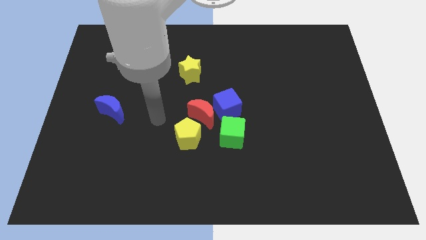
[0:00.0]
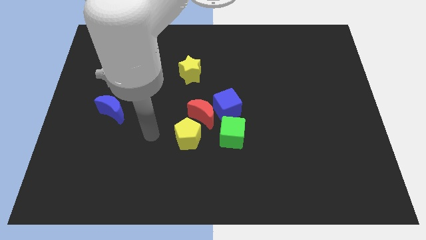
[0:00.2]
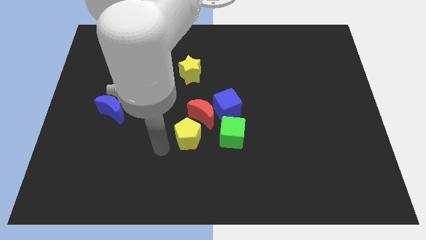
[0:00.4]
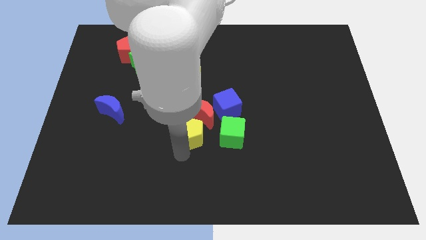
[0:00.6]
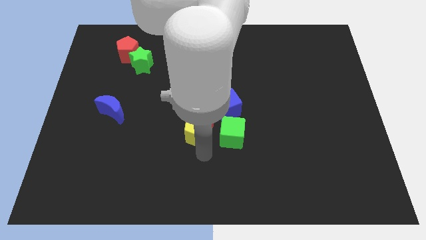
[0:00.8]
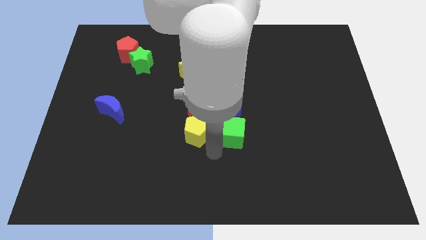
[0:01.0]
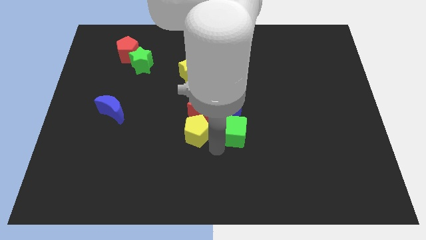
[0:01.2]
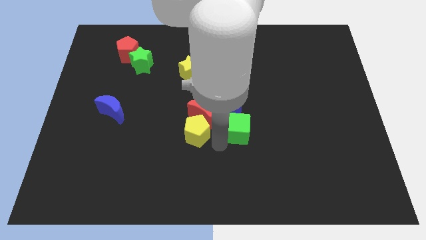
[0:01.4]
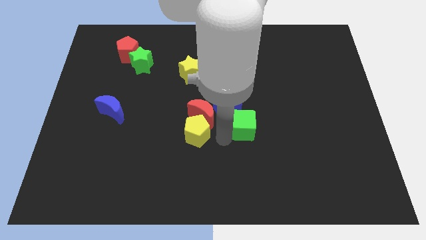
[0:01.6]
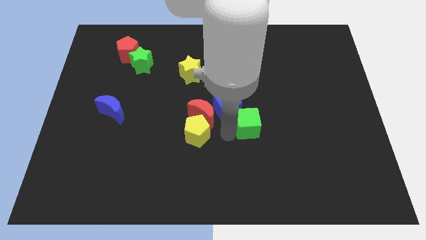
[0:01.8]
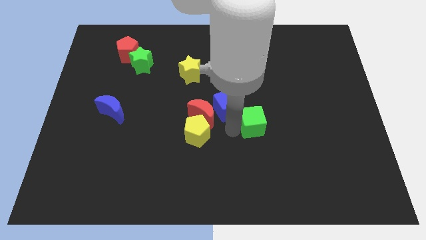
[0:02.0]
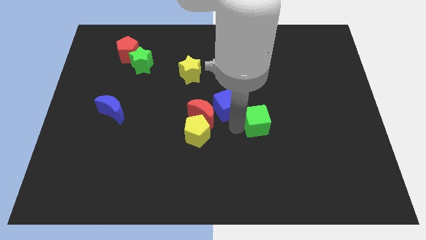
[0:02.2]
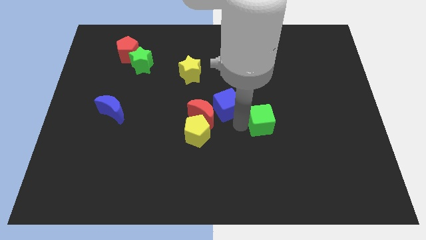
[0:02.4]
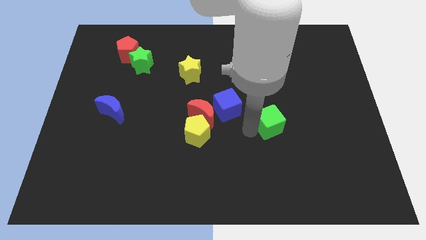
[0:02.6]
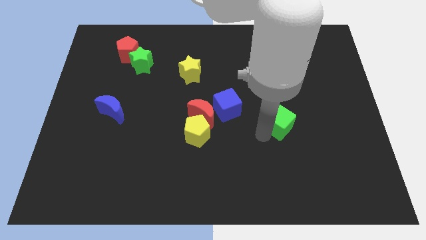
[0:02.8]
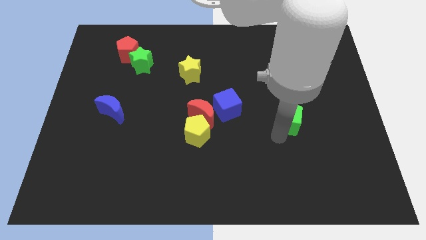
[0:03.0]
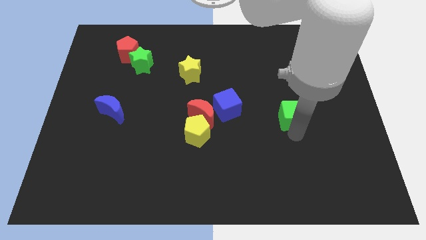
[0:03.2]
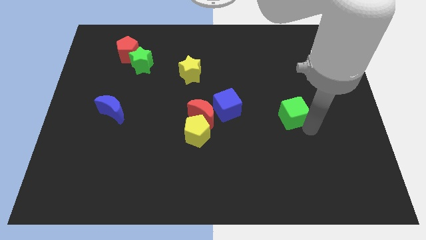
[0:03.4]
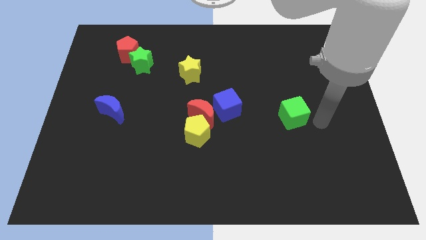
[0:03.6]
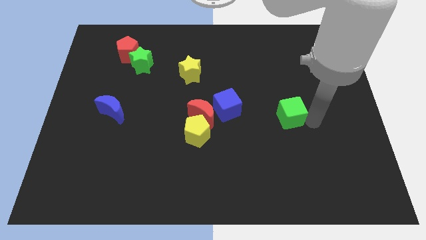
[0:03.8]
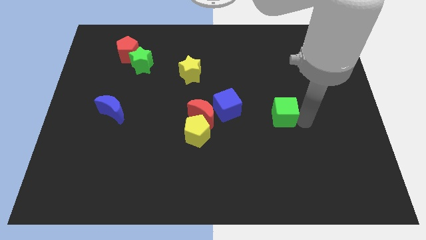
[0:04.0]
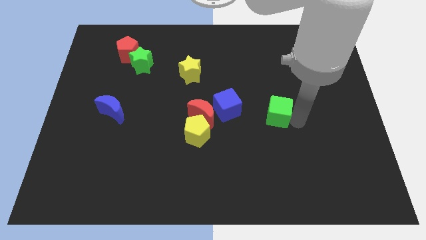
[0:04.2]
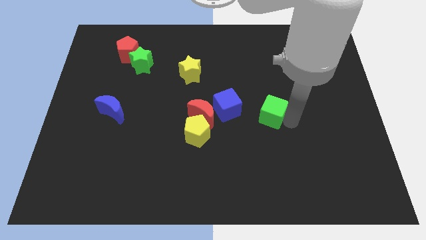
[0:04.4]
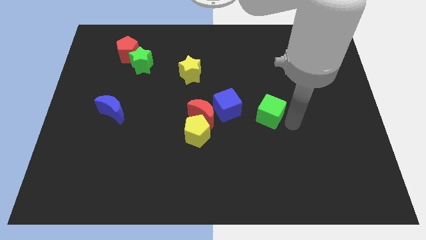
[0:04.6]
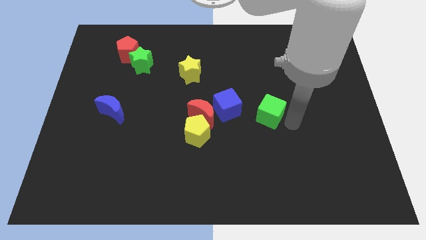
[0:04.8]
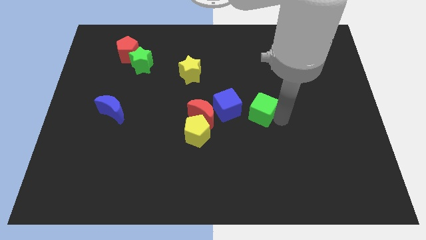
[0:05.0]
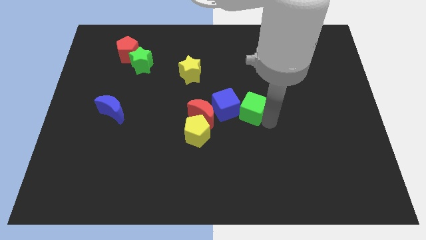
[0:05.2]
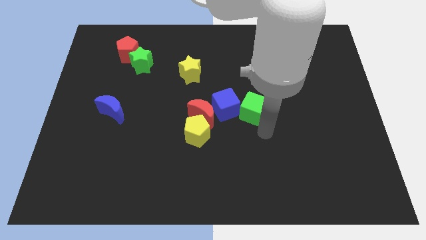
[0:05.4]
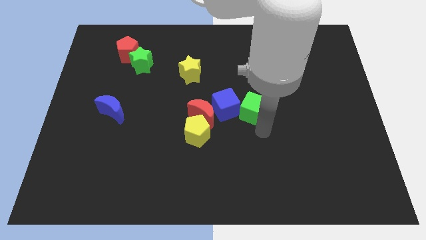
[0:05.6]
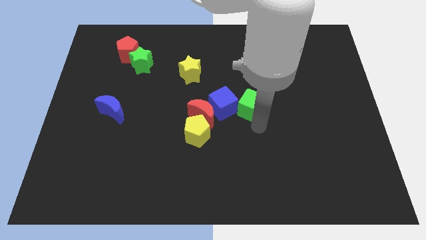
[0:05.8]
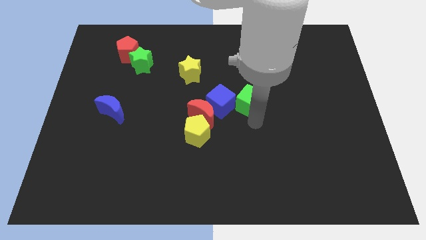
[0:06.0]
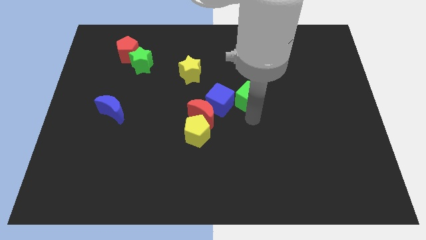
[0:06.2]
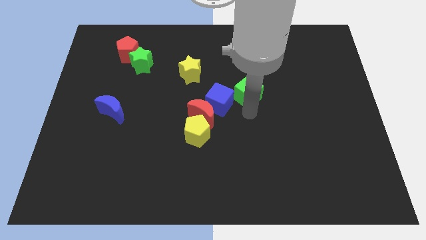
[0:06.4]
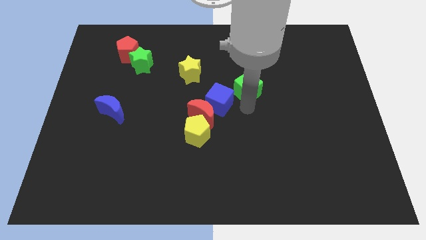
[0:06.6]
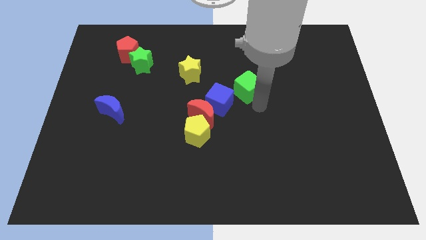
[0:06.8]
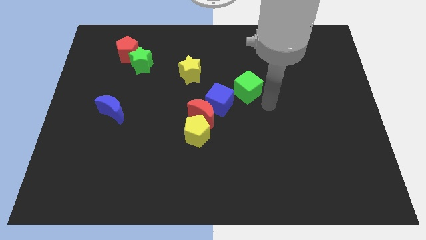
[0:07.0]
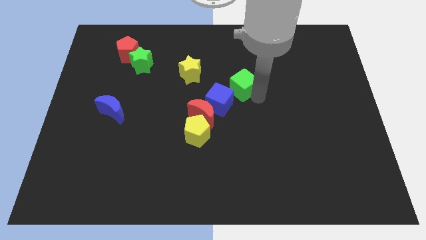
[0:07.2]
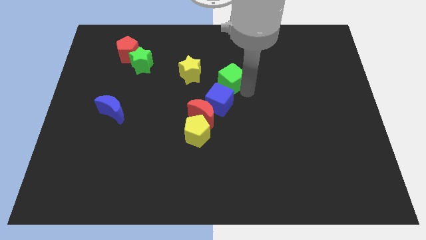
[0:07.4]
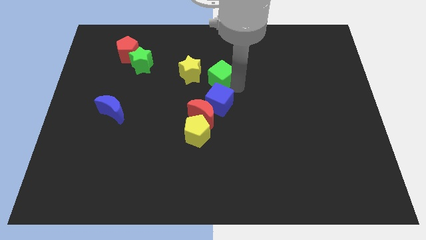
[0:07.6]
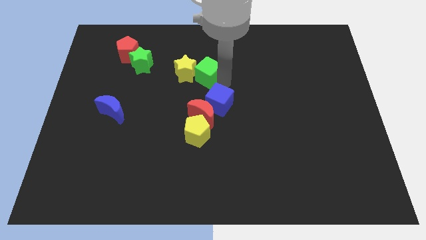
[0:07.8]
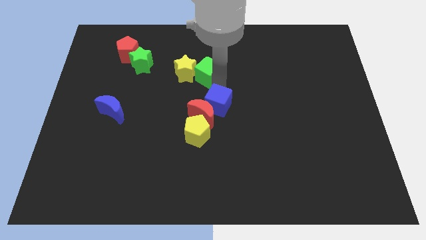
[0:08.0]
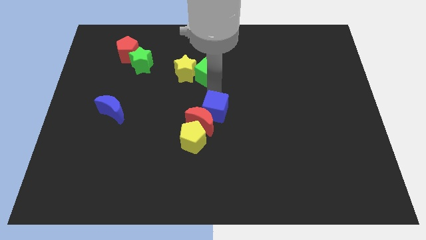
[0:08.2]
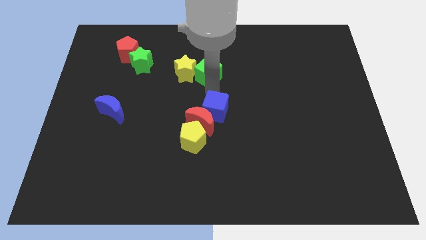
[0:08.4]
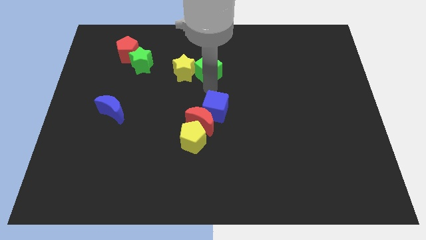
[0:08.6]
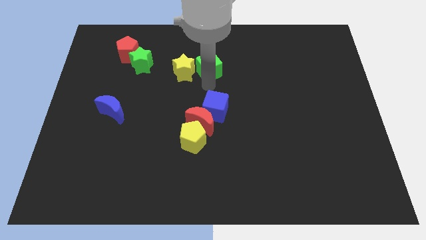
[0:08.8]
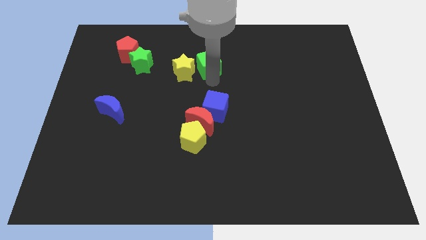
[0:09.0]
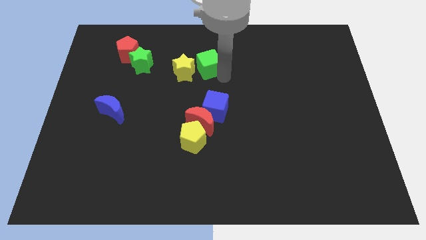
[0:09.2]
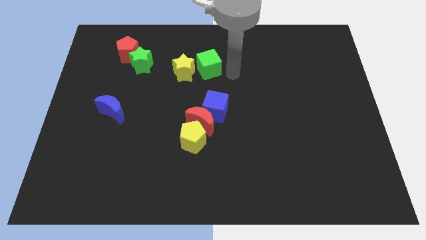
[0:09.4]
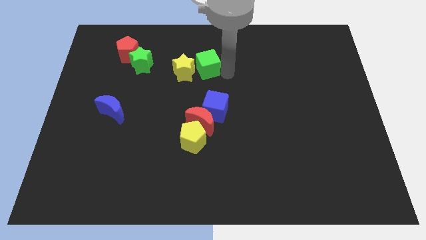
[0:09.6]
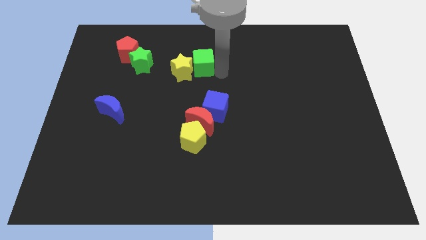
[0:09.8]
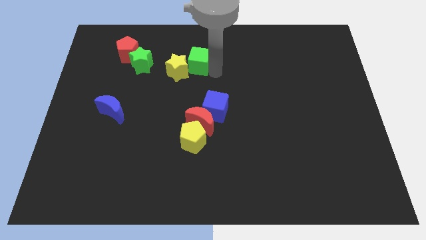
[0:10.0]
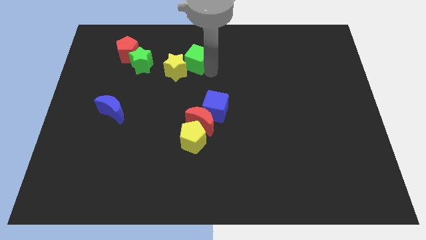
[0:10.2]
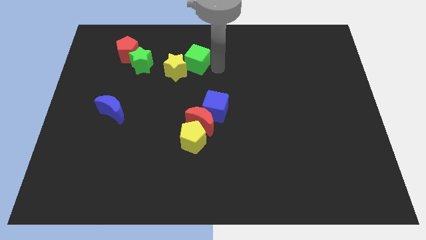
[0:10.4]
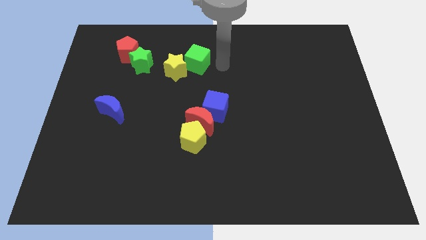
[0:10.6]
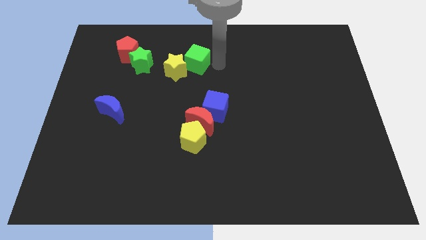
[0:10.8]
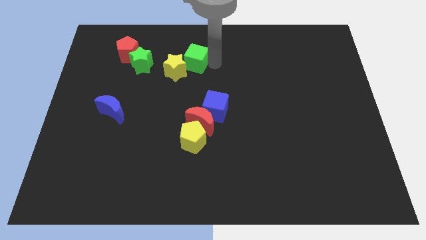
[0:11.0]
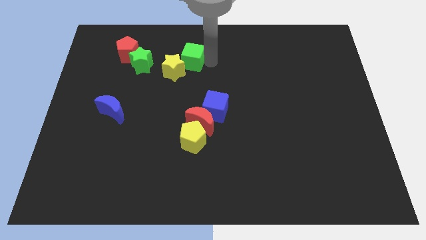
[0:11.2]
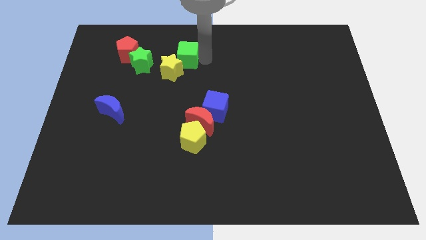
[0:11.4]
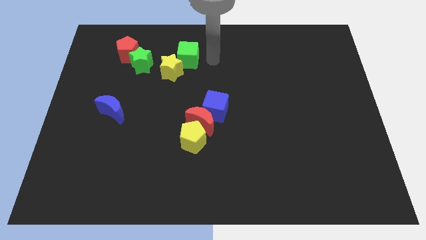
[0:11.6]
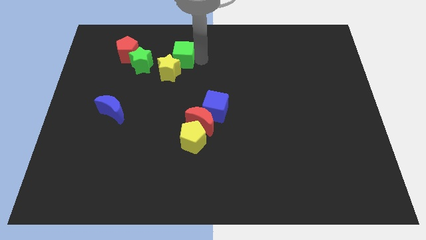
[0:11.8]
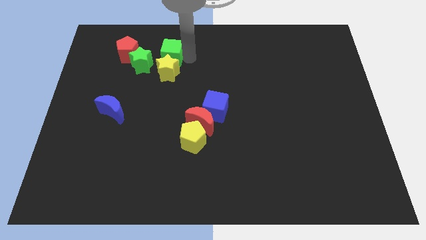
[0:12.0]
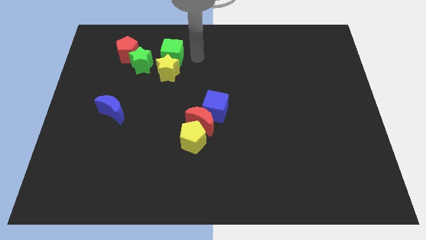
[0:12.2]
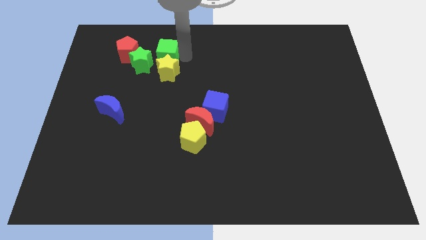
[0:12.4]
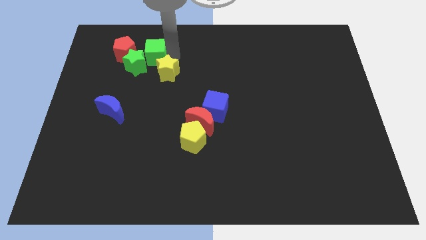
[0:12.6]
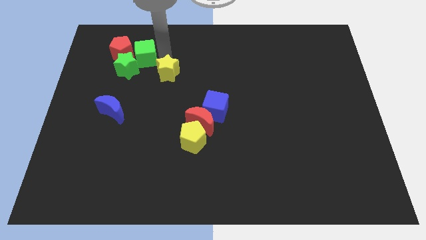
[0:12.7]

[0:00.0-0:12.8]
put the green cube next to the red pentagon

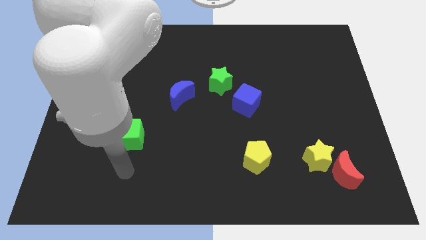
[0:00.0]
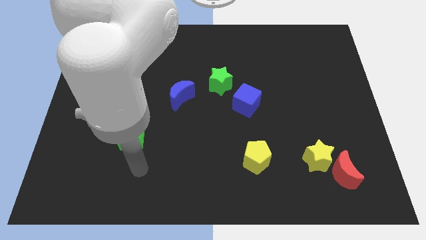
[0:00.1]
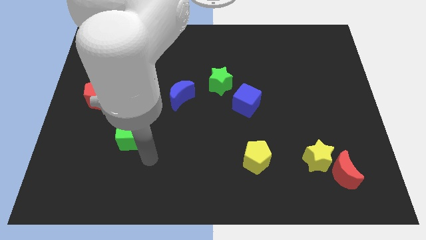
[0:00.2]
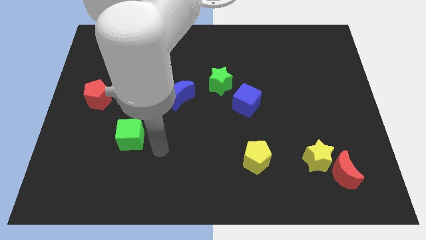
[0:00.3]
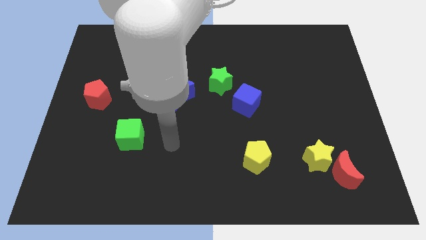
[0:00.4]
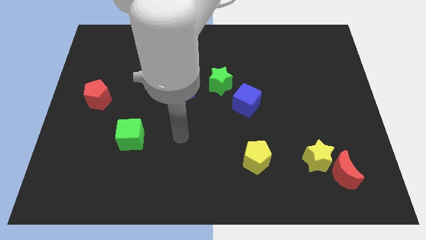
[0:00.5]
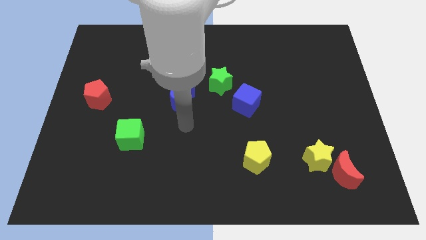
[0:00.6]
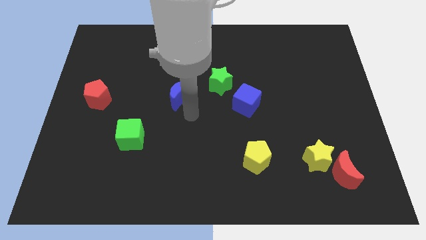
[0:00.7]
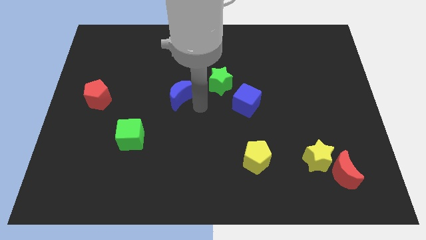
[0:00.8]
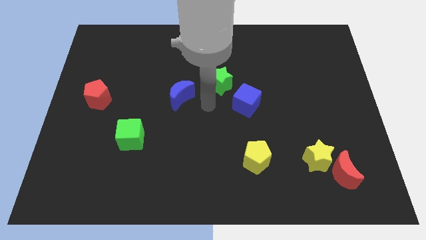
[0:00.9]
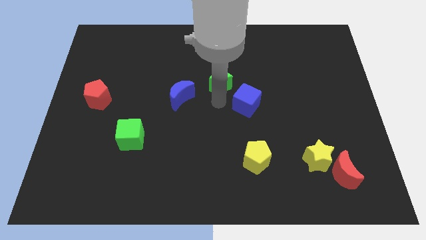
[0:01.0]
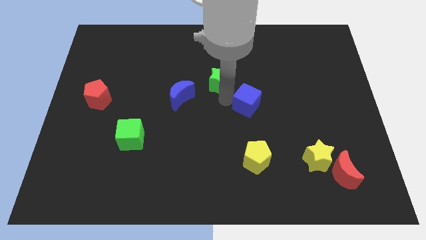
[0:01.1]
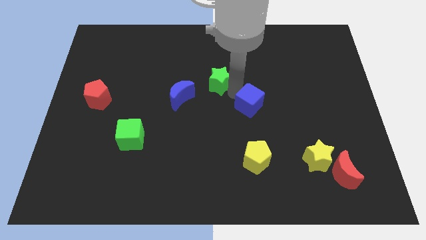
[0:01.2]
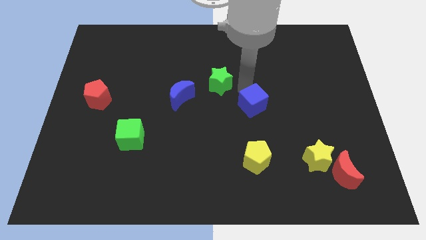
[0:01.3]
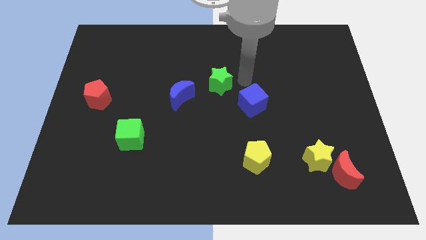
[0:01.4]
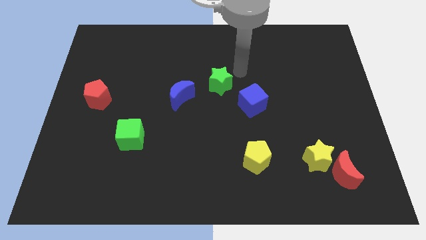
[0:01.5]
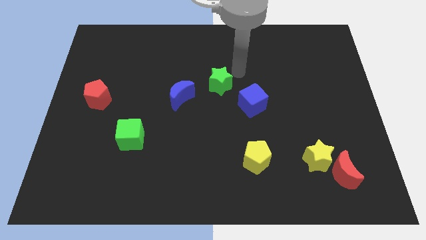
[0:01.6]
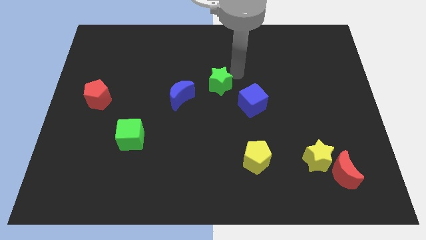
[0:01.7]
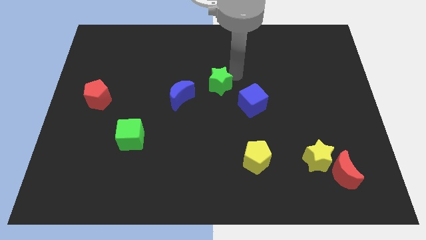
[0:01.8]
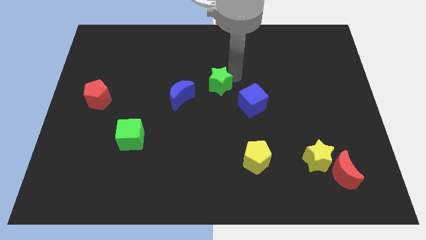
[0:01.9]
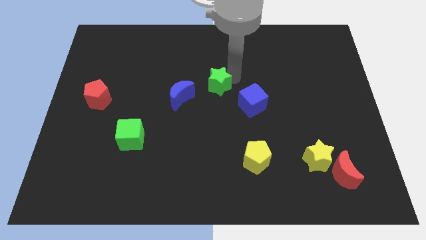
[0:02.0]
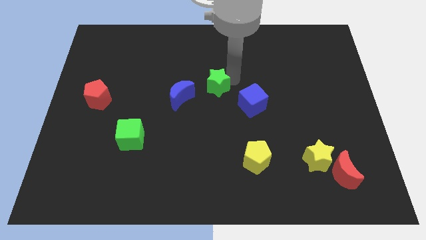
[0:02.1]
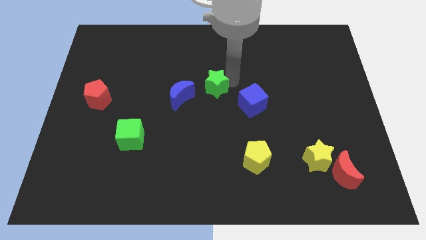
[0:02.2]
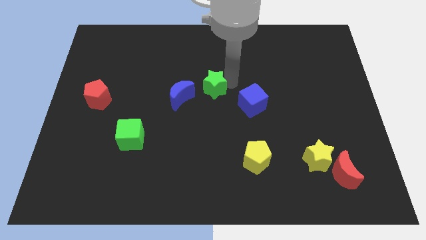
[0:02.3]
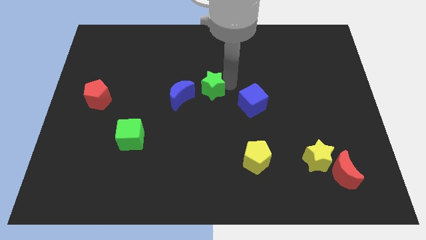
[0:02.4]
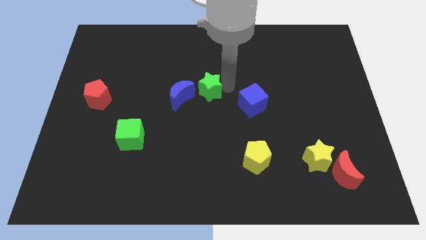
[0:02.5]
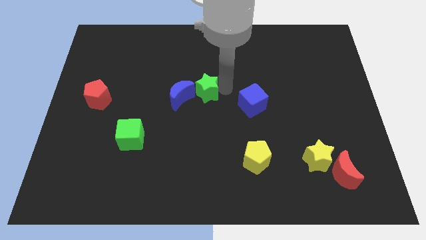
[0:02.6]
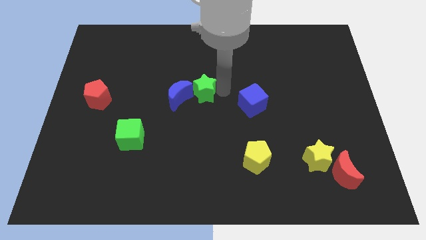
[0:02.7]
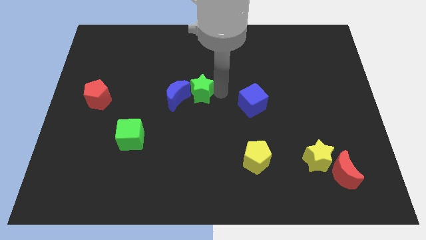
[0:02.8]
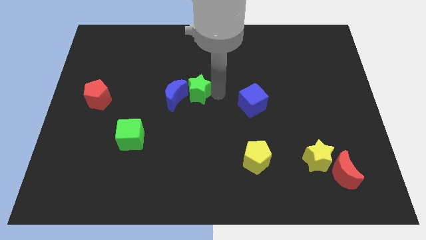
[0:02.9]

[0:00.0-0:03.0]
move the green star to the blue moon
